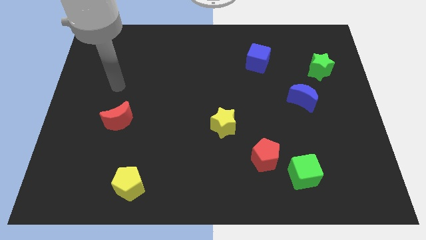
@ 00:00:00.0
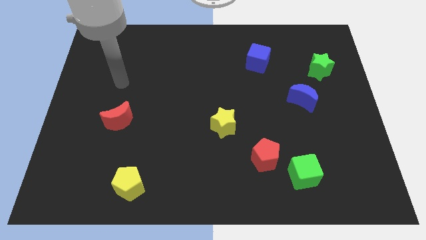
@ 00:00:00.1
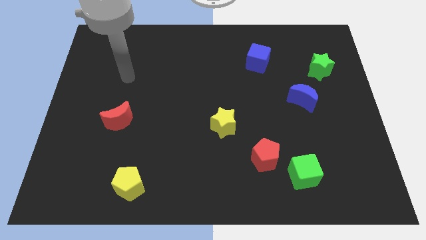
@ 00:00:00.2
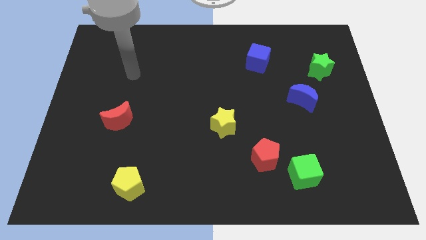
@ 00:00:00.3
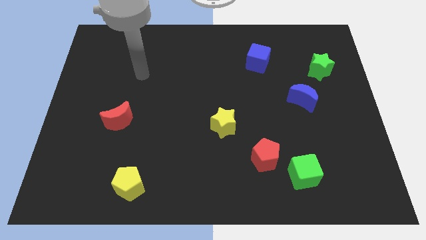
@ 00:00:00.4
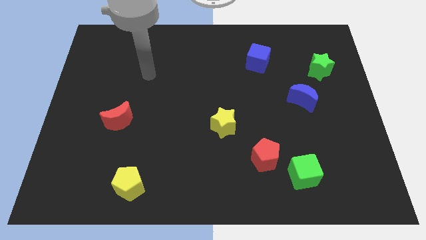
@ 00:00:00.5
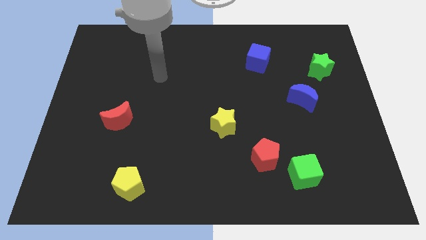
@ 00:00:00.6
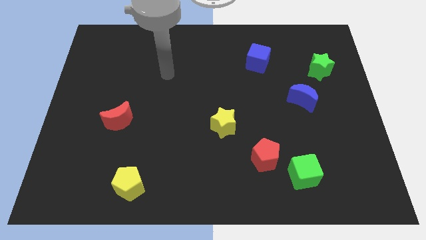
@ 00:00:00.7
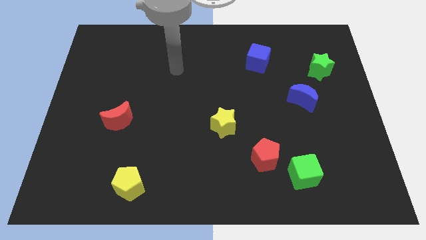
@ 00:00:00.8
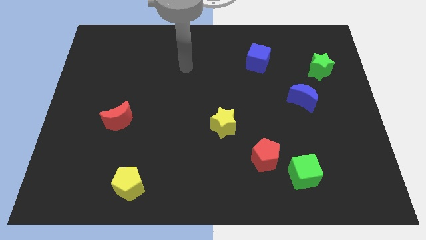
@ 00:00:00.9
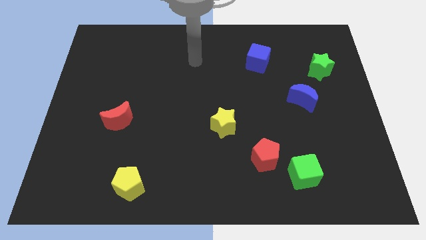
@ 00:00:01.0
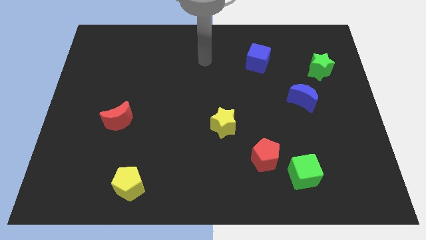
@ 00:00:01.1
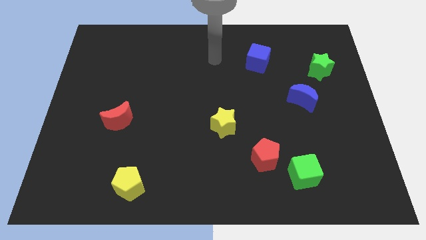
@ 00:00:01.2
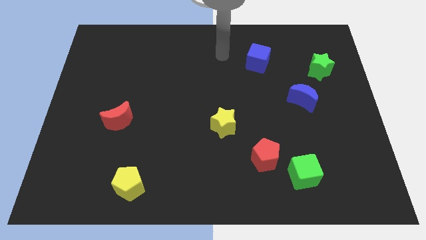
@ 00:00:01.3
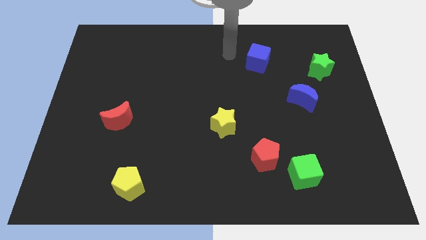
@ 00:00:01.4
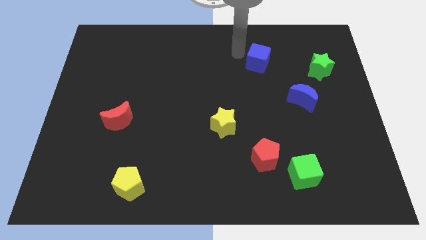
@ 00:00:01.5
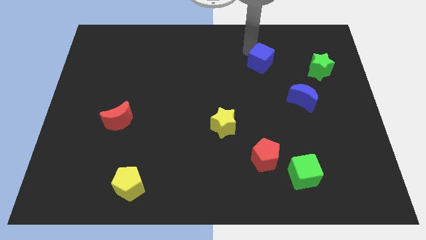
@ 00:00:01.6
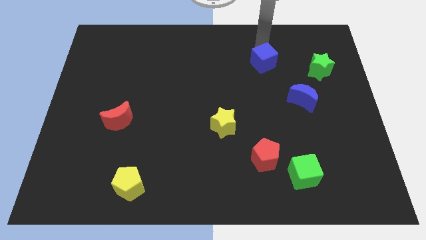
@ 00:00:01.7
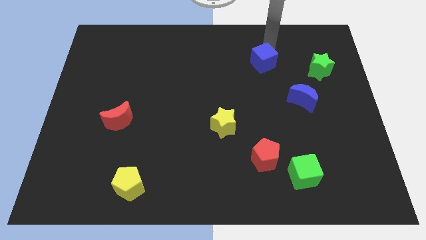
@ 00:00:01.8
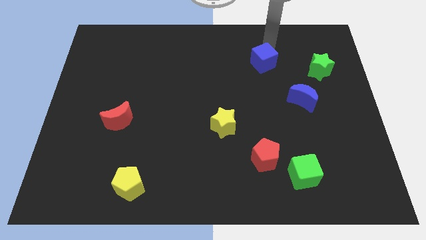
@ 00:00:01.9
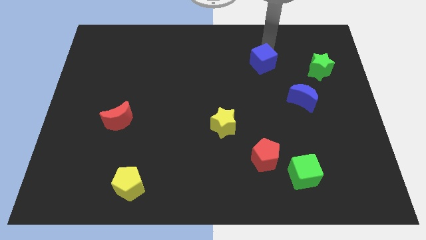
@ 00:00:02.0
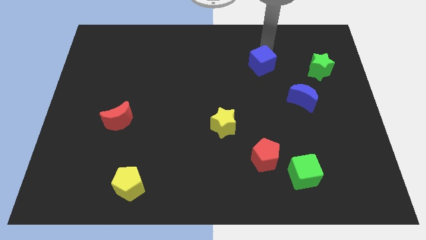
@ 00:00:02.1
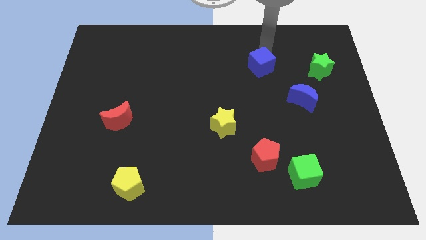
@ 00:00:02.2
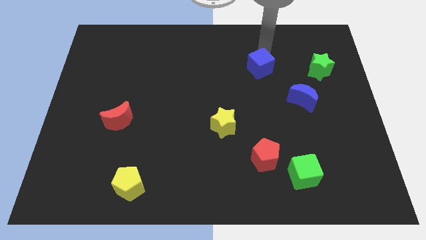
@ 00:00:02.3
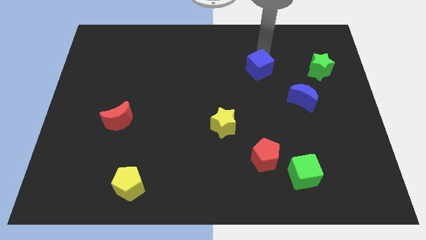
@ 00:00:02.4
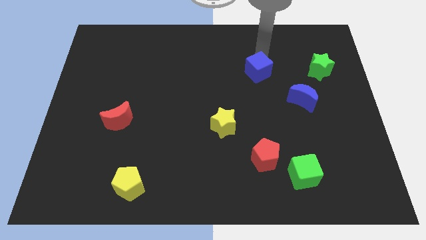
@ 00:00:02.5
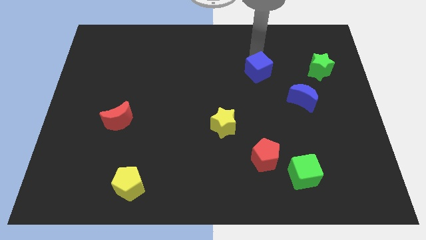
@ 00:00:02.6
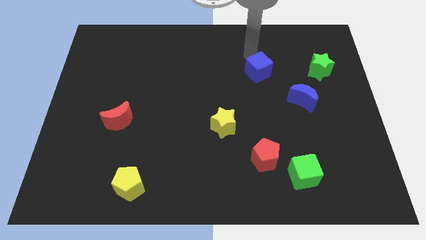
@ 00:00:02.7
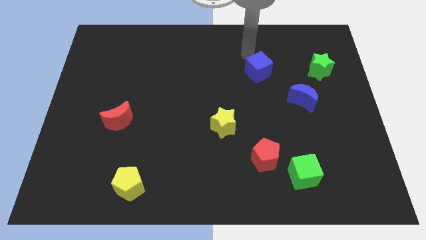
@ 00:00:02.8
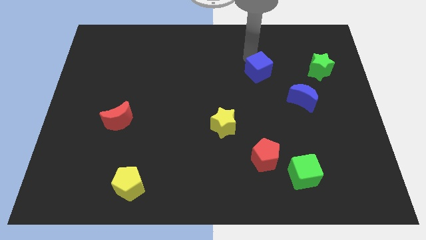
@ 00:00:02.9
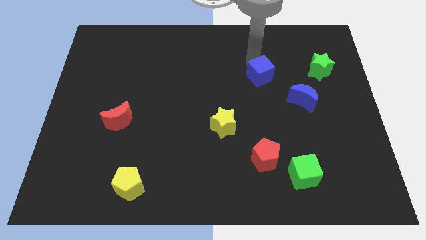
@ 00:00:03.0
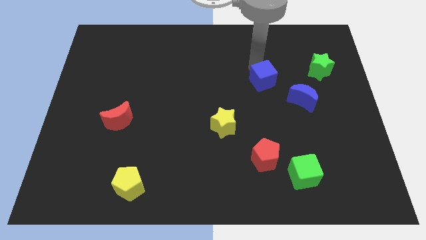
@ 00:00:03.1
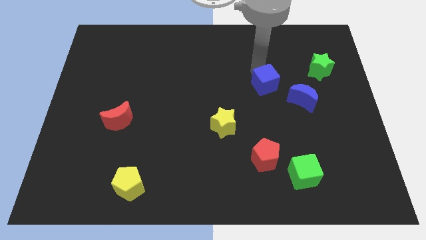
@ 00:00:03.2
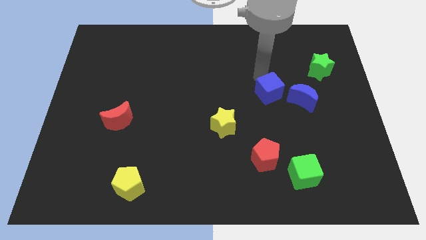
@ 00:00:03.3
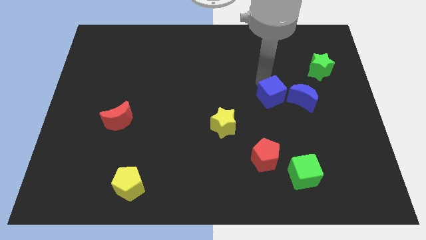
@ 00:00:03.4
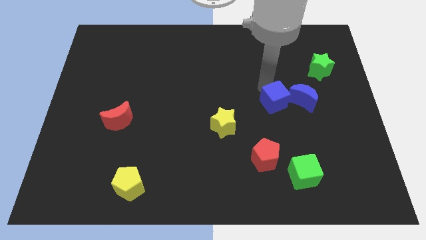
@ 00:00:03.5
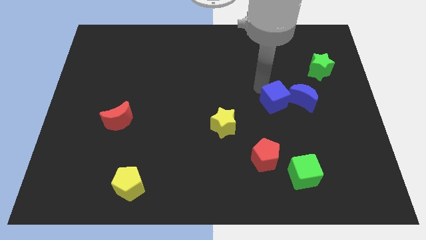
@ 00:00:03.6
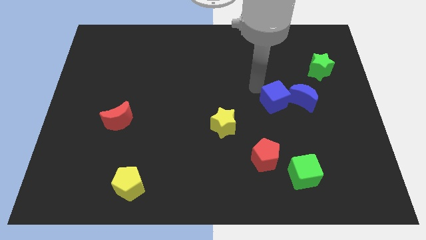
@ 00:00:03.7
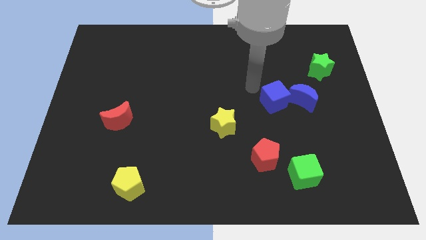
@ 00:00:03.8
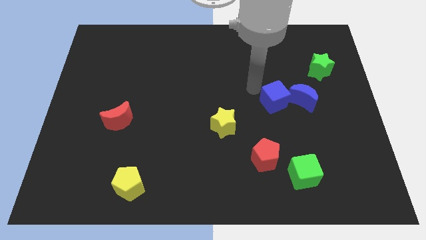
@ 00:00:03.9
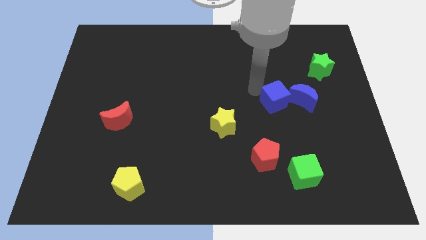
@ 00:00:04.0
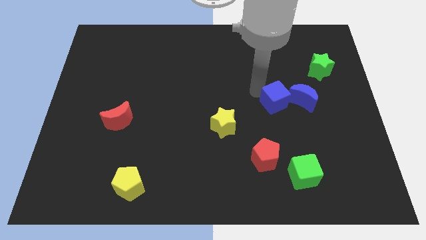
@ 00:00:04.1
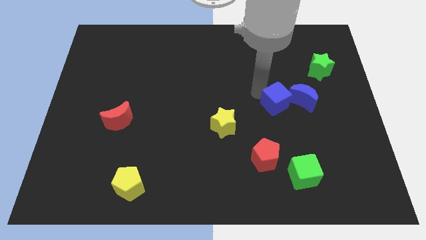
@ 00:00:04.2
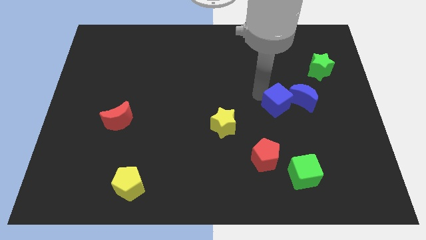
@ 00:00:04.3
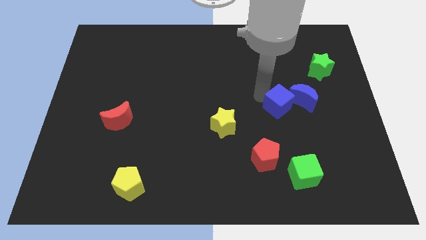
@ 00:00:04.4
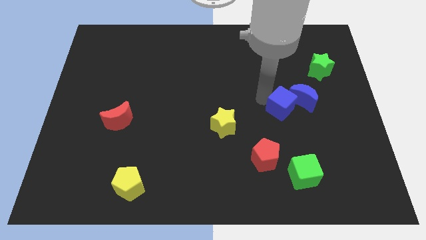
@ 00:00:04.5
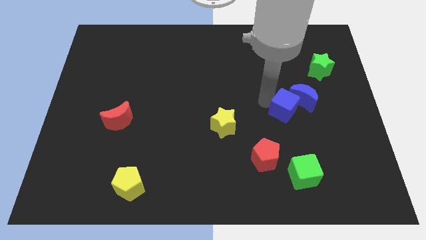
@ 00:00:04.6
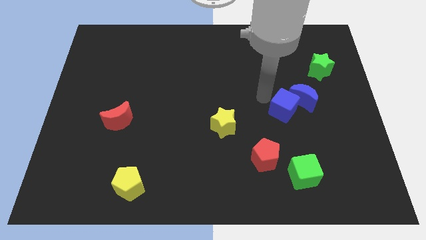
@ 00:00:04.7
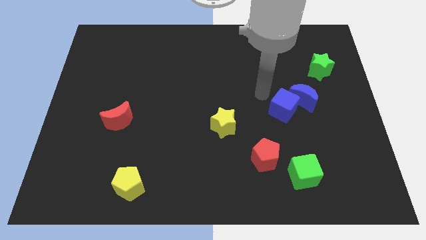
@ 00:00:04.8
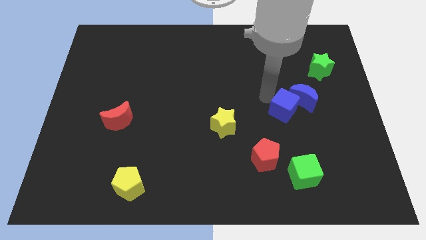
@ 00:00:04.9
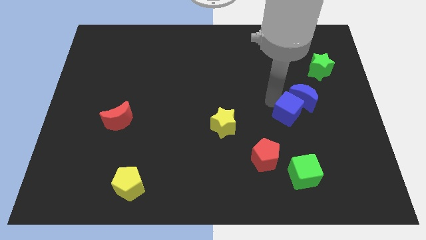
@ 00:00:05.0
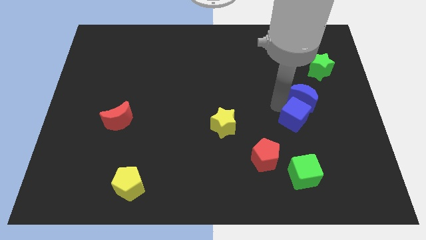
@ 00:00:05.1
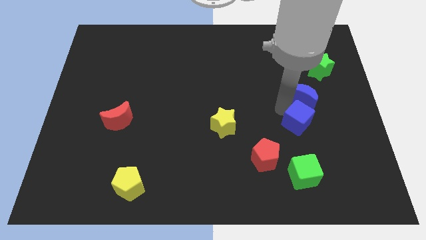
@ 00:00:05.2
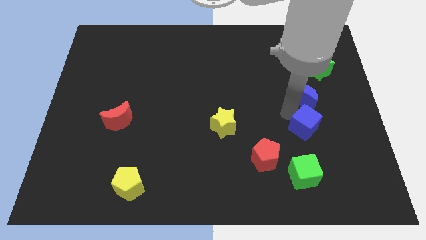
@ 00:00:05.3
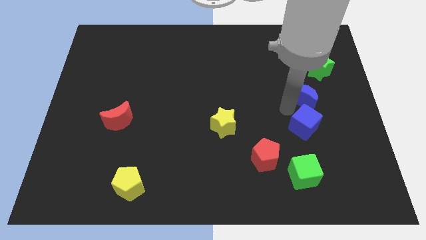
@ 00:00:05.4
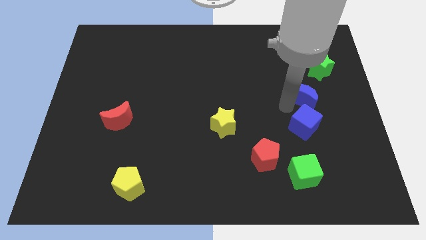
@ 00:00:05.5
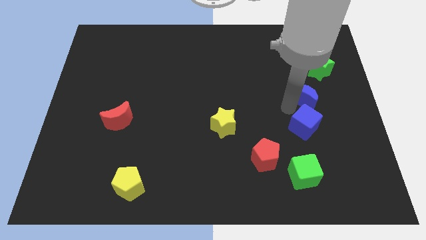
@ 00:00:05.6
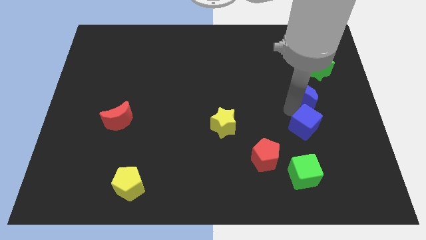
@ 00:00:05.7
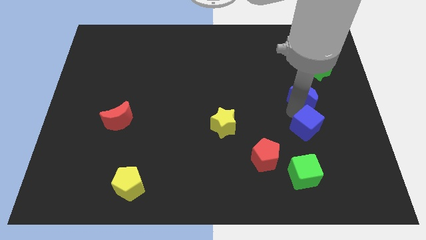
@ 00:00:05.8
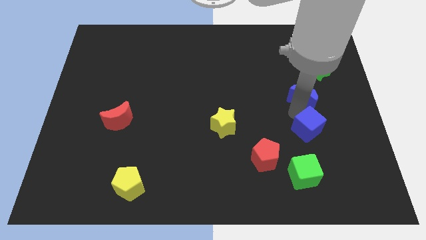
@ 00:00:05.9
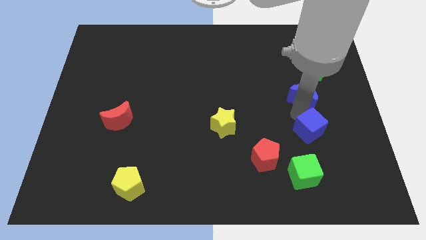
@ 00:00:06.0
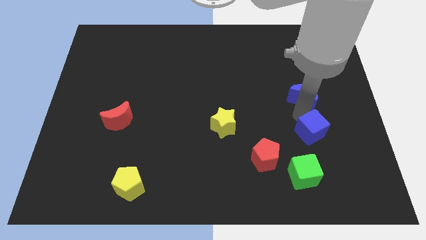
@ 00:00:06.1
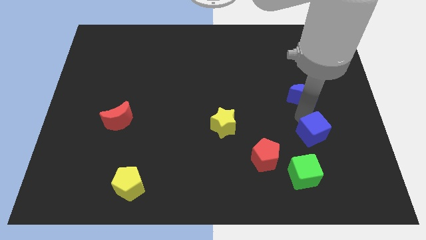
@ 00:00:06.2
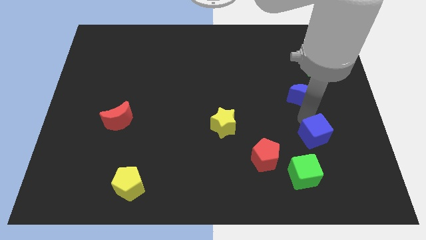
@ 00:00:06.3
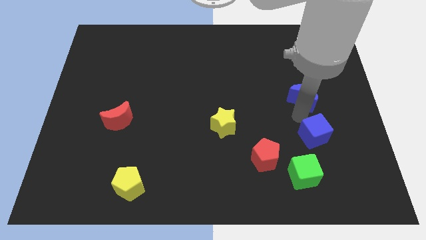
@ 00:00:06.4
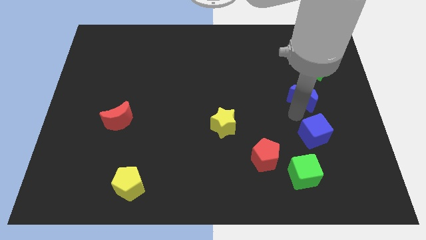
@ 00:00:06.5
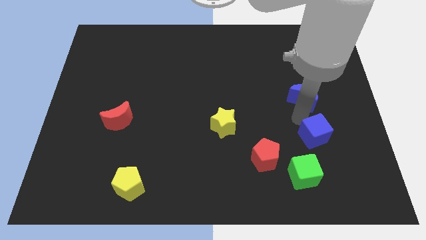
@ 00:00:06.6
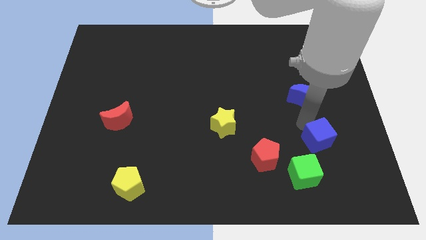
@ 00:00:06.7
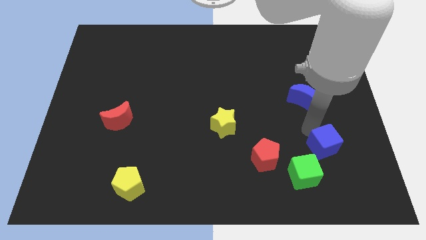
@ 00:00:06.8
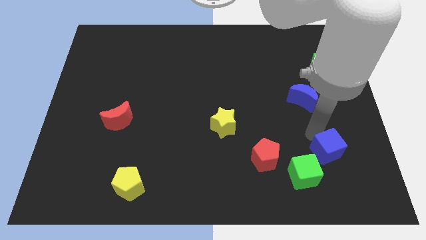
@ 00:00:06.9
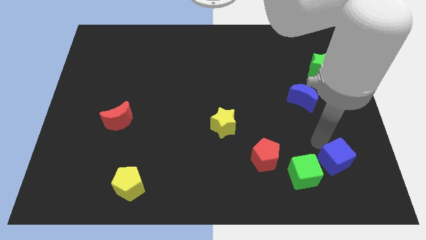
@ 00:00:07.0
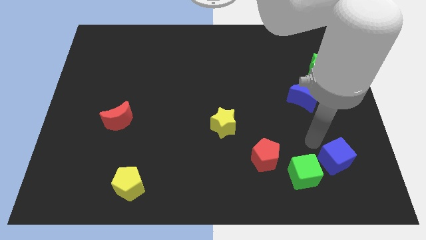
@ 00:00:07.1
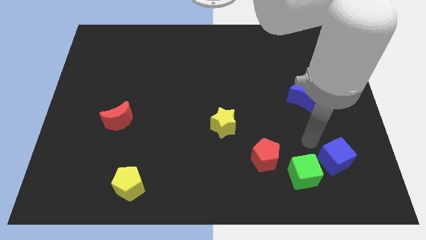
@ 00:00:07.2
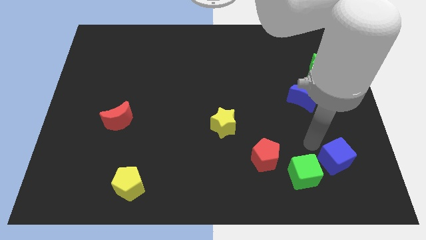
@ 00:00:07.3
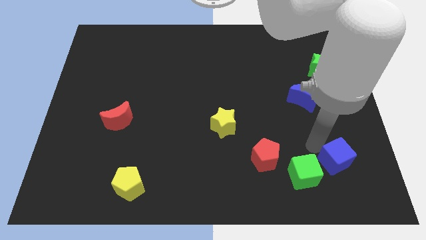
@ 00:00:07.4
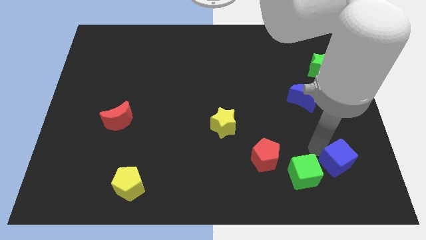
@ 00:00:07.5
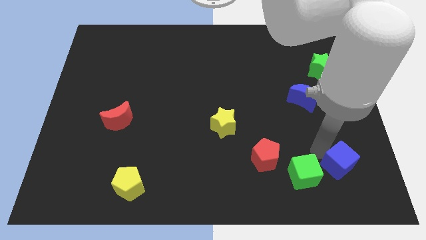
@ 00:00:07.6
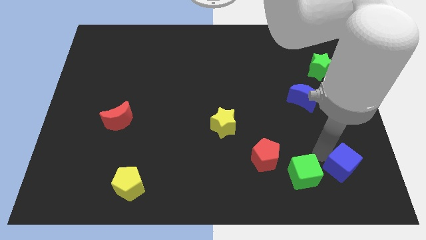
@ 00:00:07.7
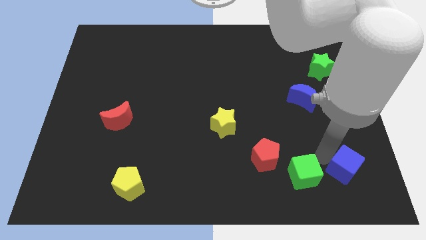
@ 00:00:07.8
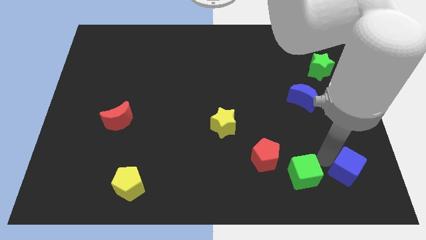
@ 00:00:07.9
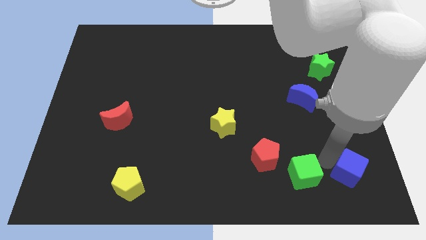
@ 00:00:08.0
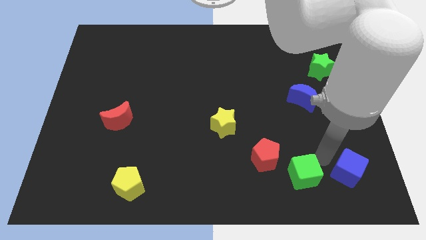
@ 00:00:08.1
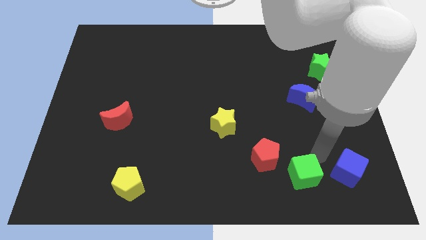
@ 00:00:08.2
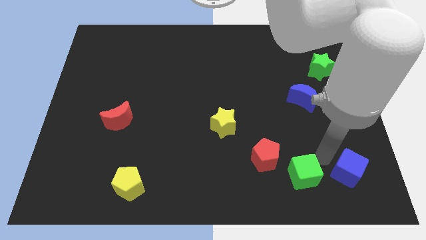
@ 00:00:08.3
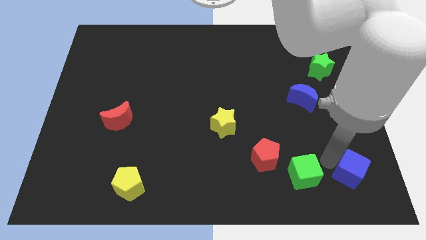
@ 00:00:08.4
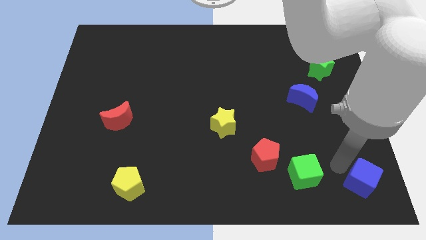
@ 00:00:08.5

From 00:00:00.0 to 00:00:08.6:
push the blue cube to the lower right corner
